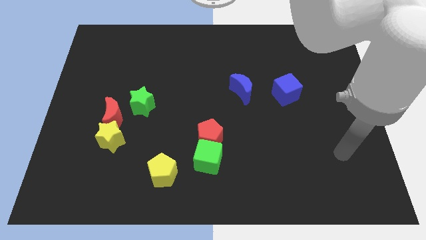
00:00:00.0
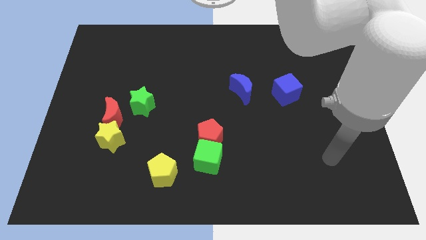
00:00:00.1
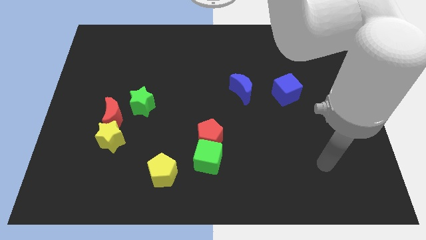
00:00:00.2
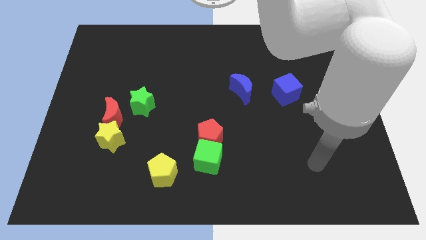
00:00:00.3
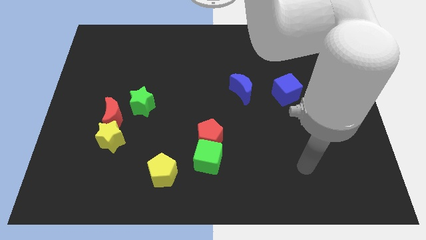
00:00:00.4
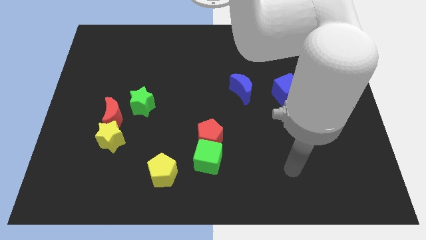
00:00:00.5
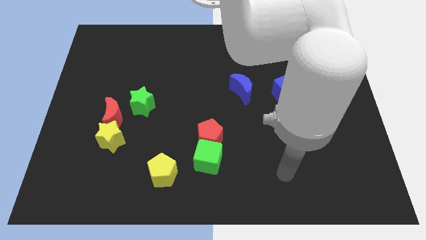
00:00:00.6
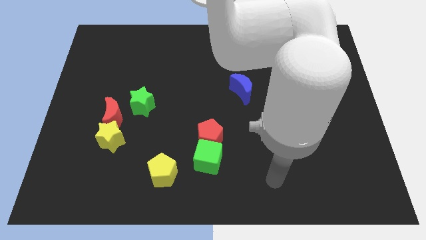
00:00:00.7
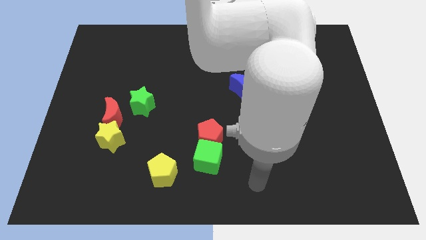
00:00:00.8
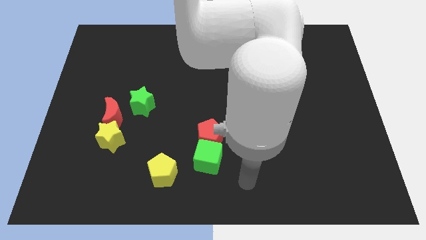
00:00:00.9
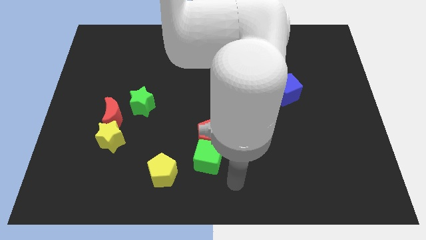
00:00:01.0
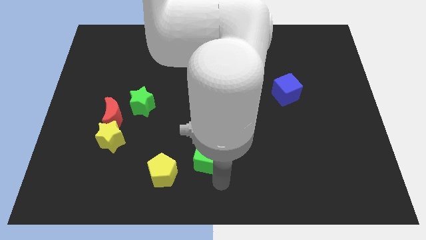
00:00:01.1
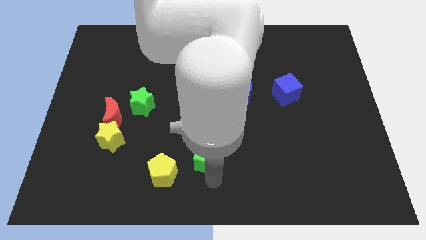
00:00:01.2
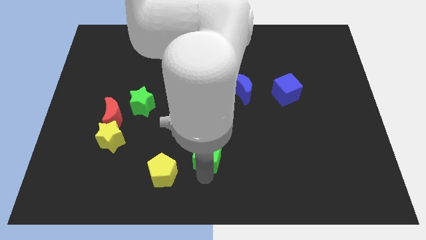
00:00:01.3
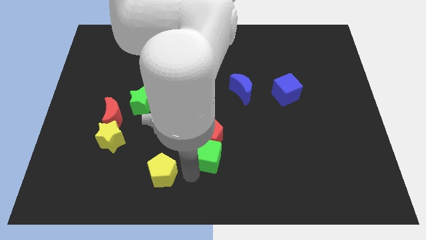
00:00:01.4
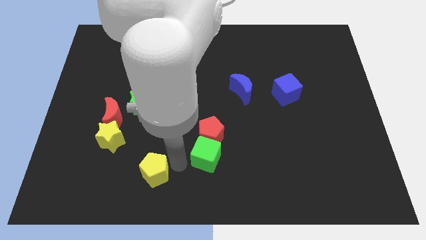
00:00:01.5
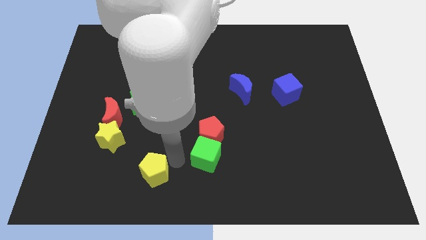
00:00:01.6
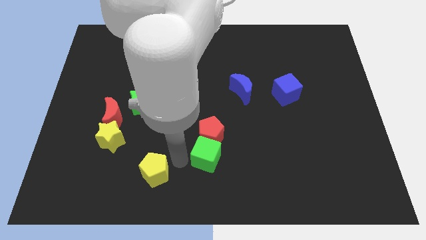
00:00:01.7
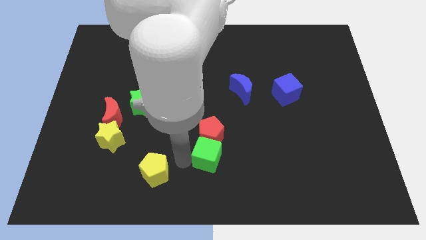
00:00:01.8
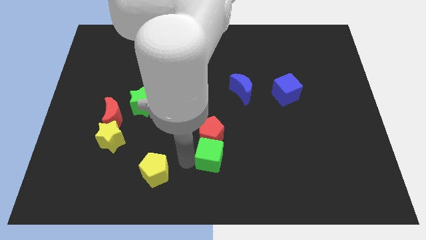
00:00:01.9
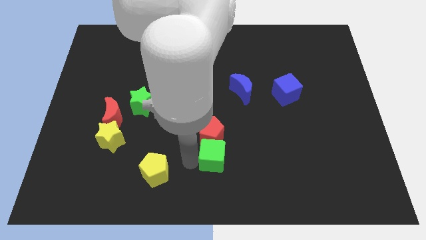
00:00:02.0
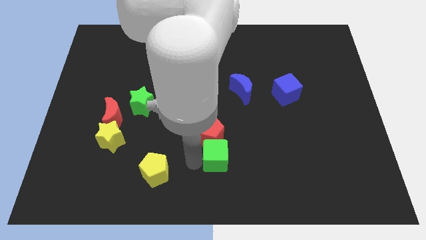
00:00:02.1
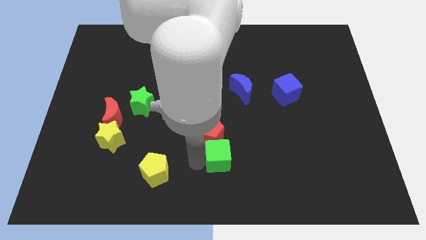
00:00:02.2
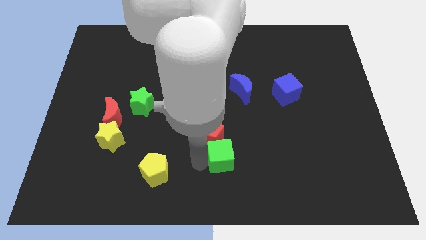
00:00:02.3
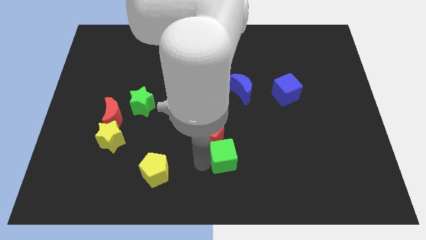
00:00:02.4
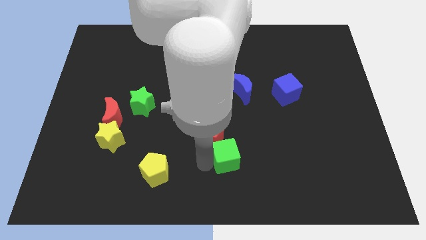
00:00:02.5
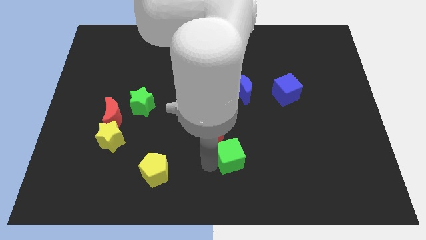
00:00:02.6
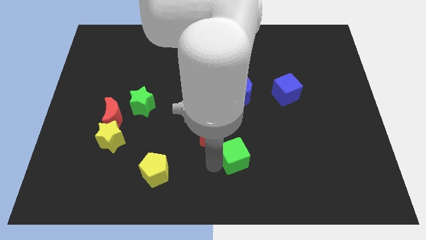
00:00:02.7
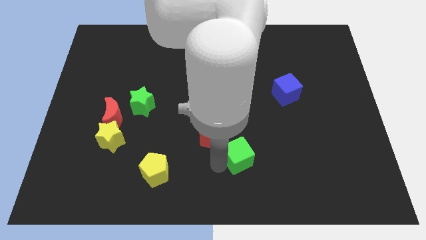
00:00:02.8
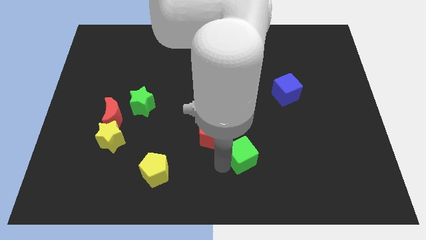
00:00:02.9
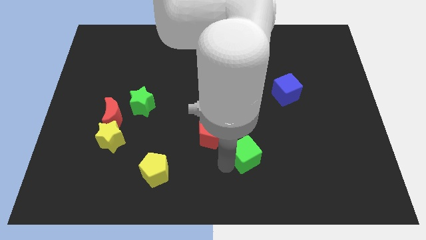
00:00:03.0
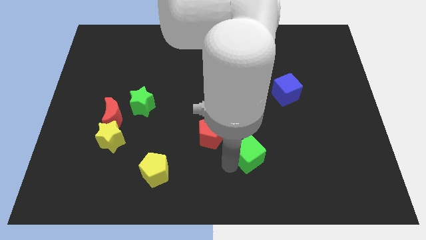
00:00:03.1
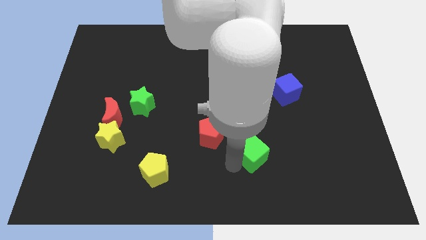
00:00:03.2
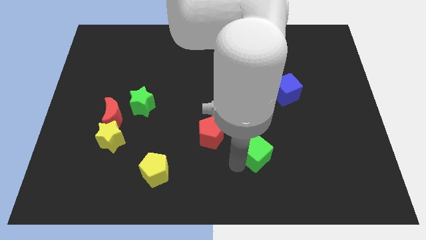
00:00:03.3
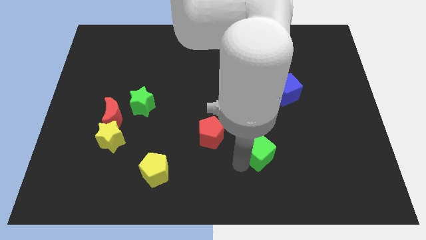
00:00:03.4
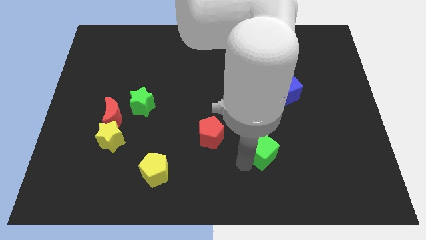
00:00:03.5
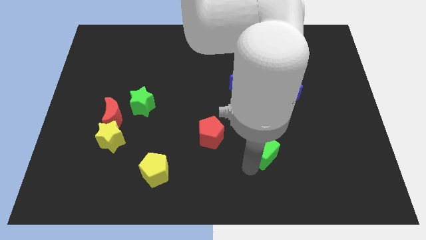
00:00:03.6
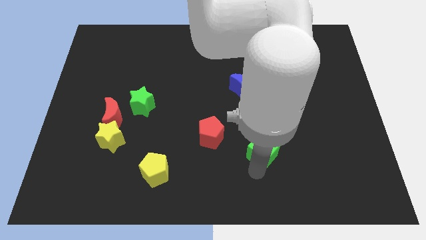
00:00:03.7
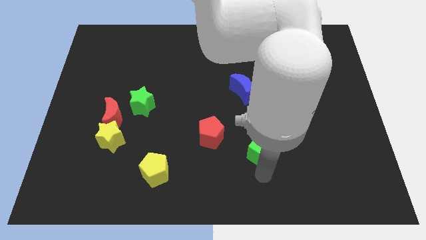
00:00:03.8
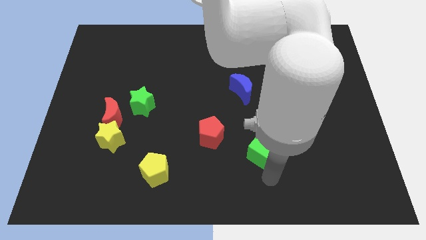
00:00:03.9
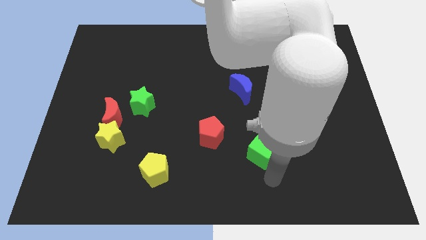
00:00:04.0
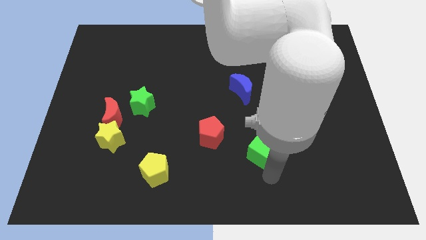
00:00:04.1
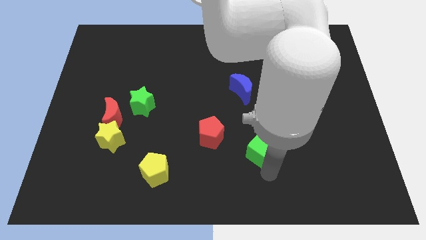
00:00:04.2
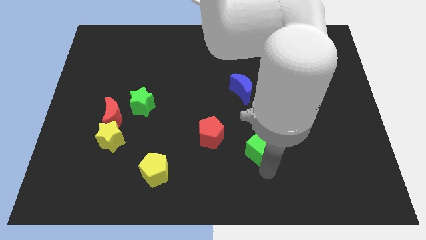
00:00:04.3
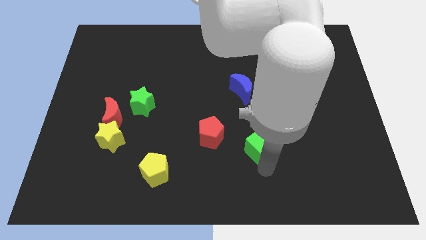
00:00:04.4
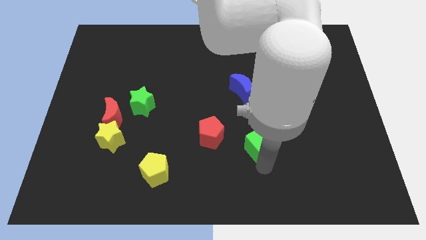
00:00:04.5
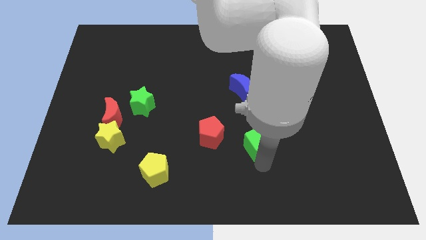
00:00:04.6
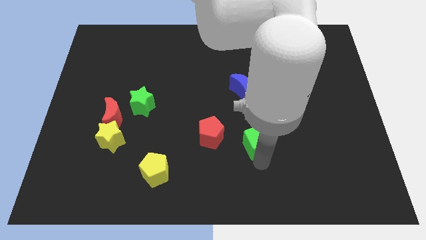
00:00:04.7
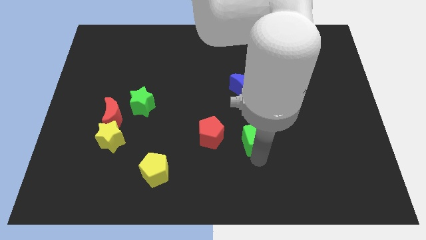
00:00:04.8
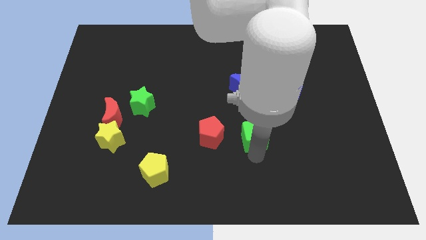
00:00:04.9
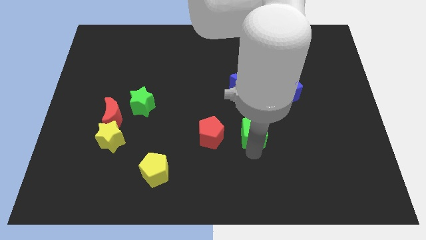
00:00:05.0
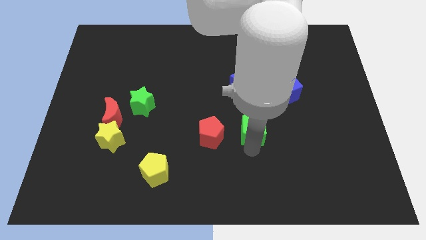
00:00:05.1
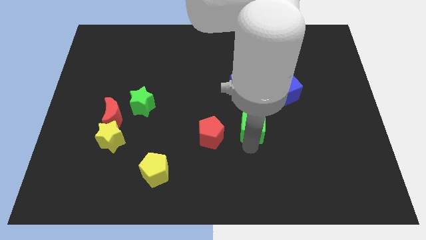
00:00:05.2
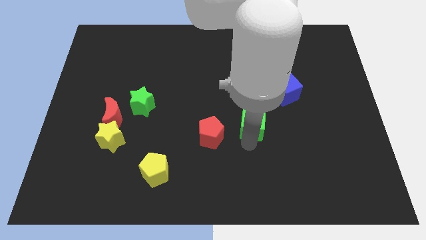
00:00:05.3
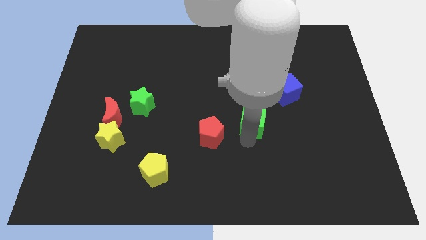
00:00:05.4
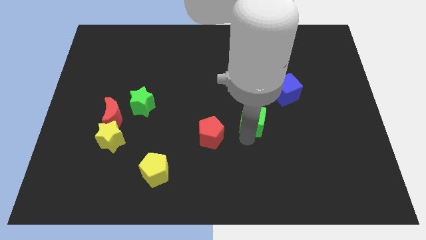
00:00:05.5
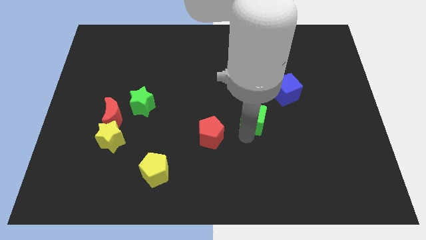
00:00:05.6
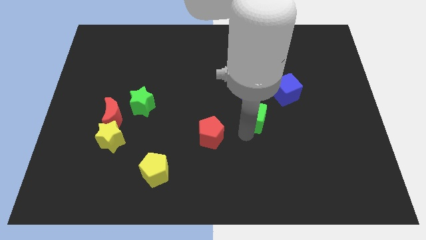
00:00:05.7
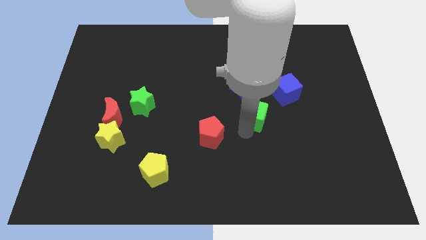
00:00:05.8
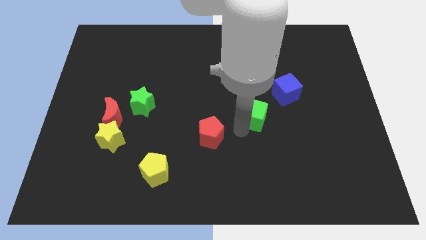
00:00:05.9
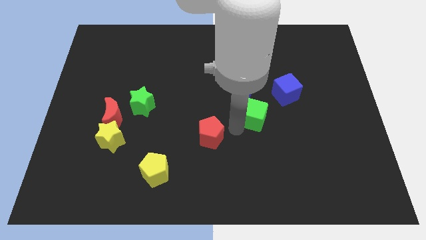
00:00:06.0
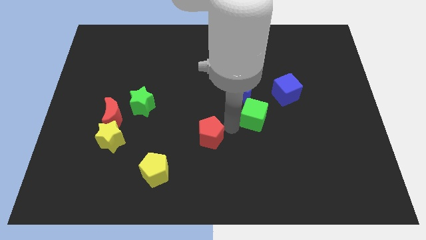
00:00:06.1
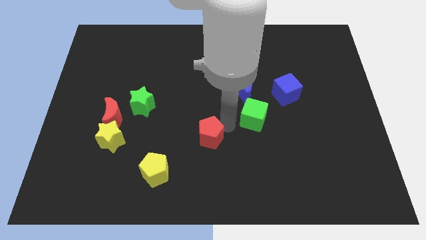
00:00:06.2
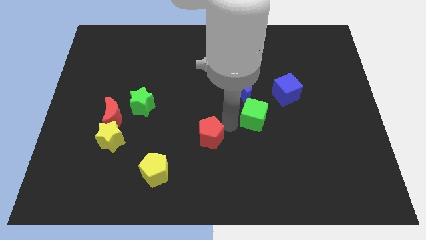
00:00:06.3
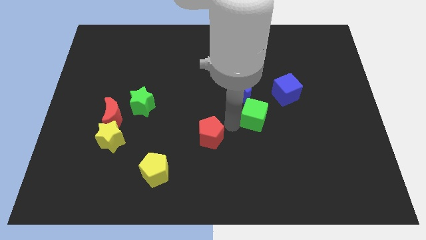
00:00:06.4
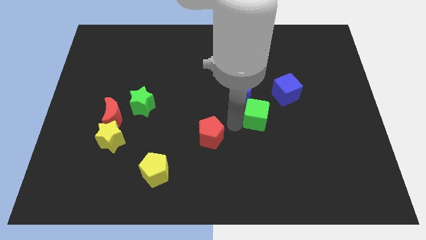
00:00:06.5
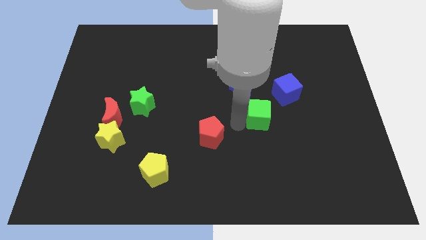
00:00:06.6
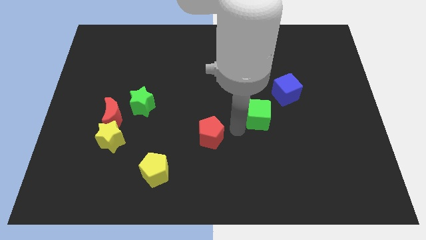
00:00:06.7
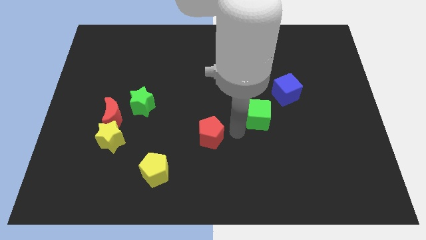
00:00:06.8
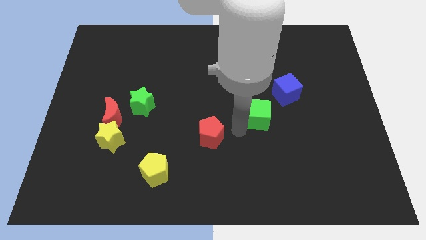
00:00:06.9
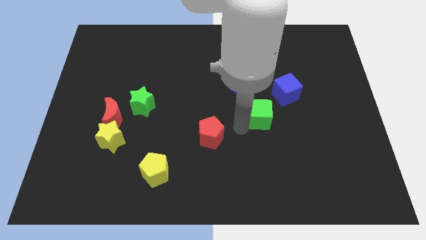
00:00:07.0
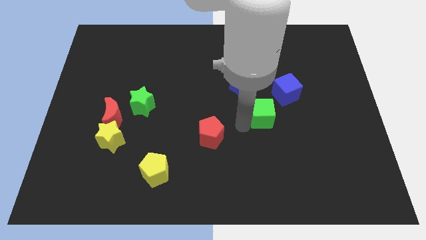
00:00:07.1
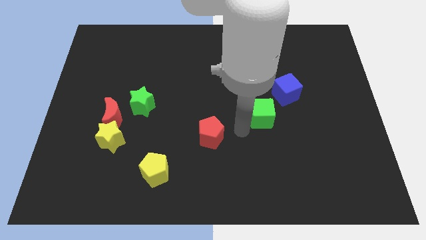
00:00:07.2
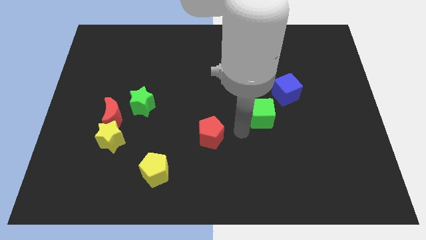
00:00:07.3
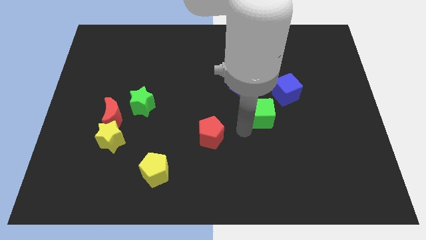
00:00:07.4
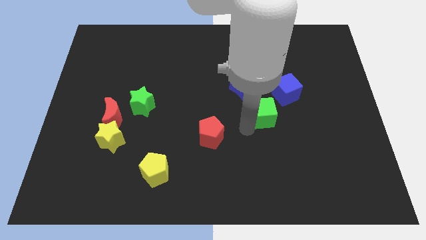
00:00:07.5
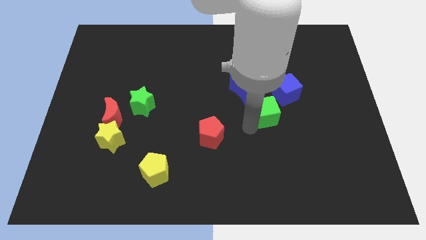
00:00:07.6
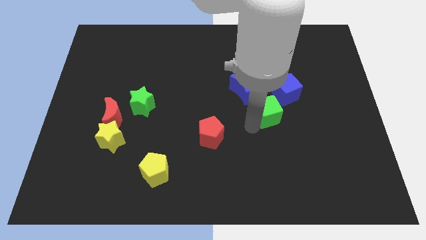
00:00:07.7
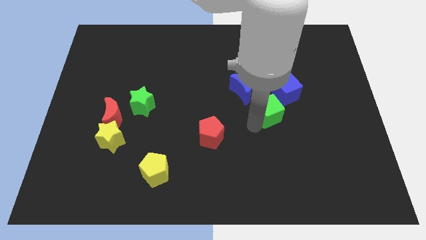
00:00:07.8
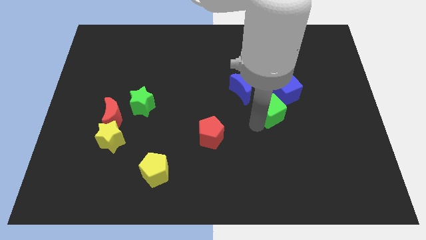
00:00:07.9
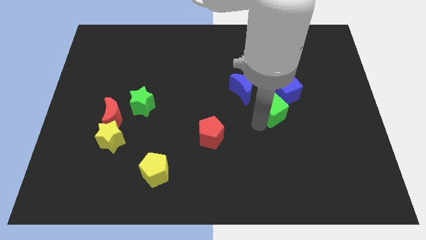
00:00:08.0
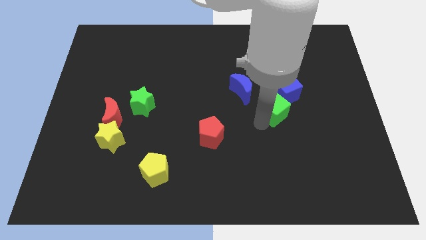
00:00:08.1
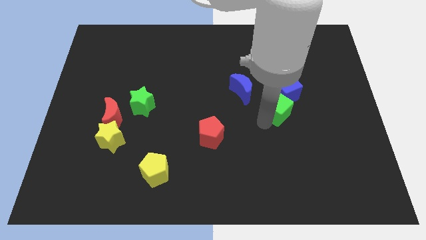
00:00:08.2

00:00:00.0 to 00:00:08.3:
push the green cube towards the blue cube
